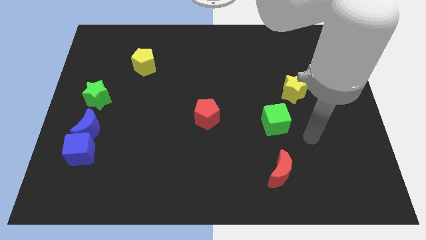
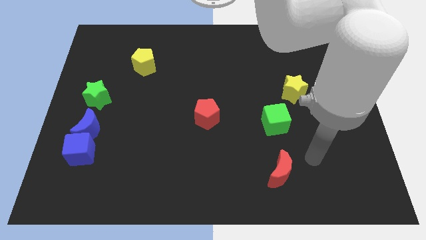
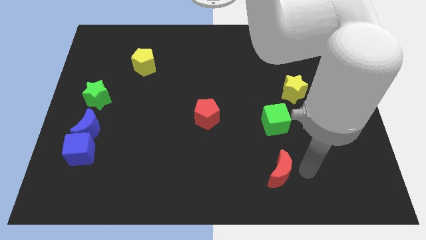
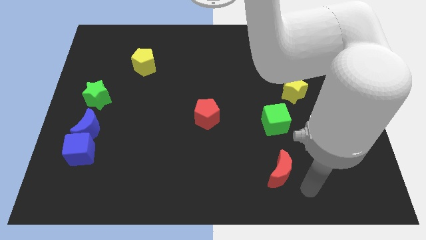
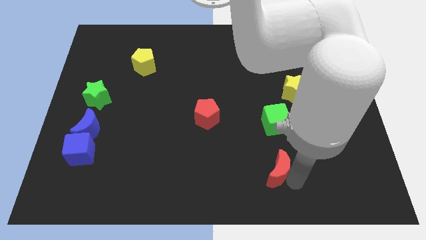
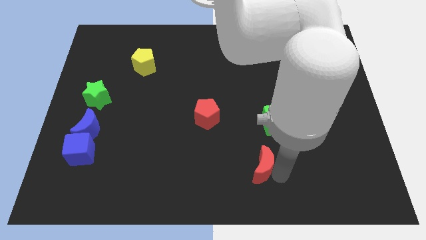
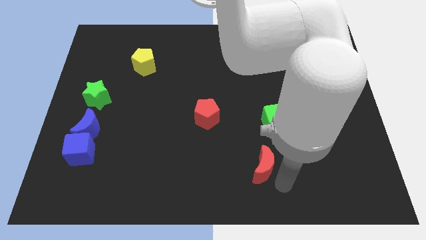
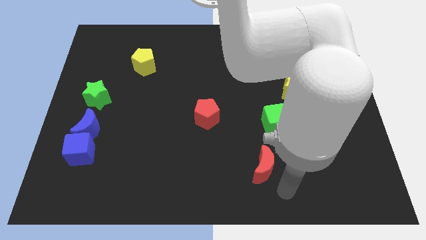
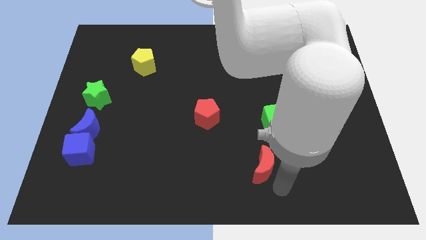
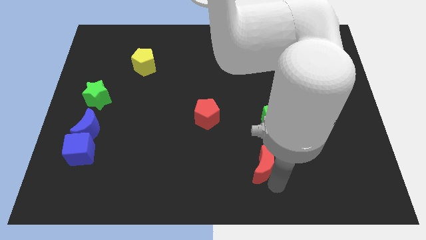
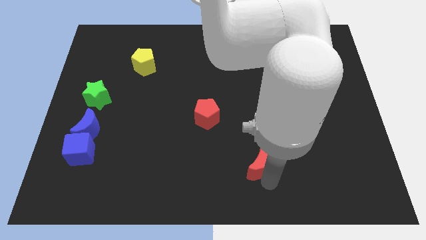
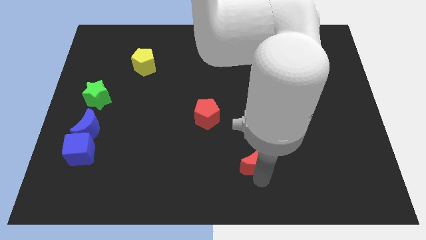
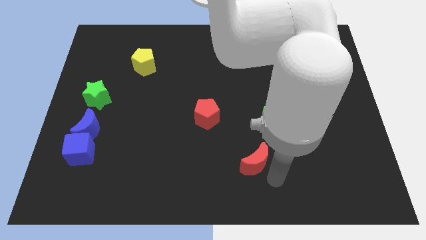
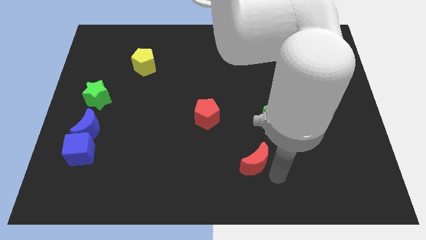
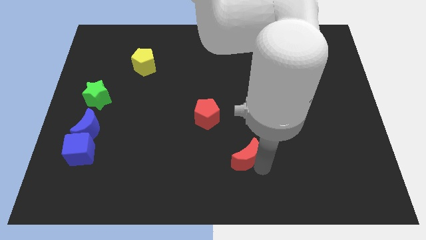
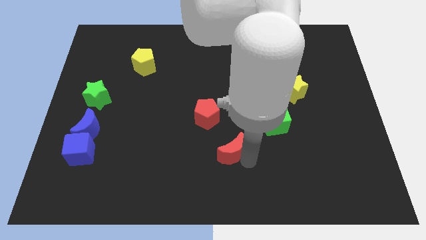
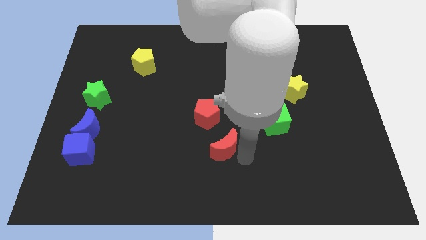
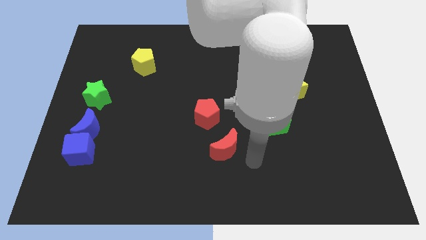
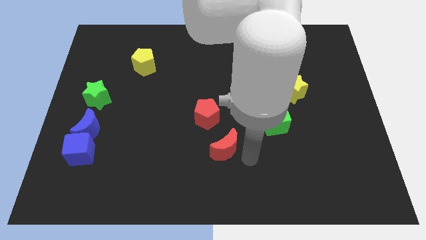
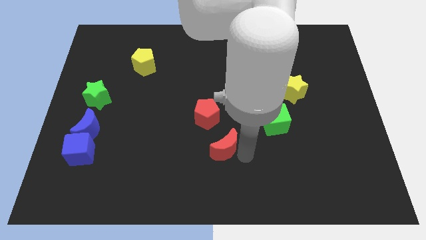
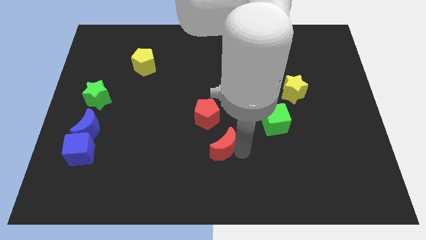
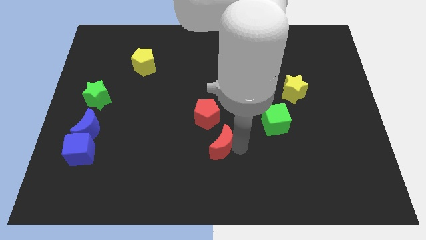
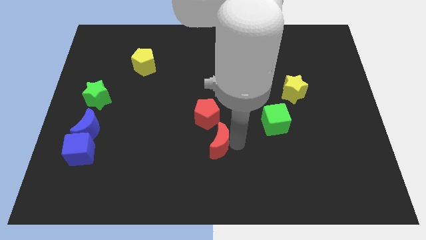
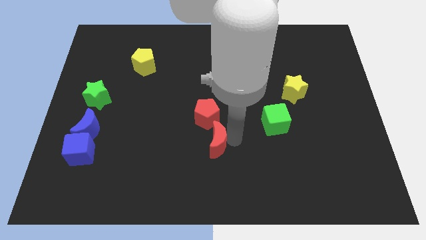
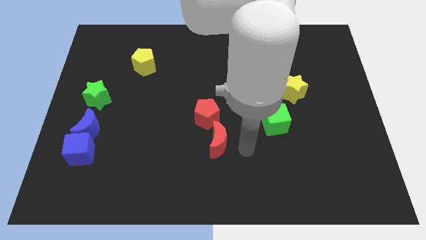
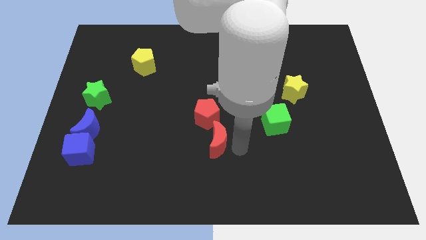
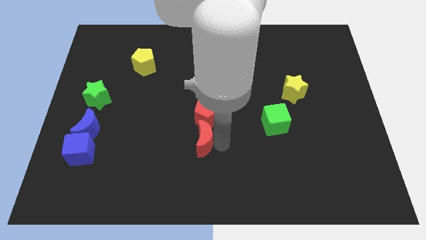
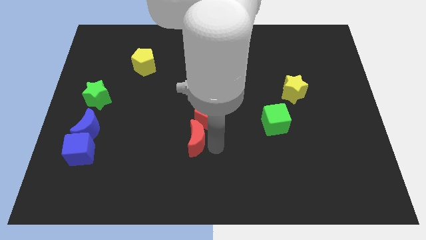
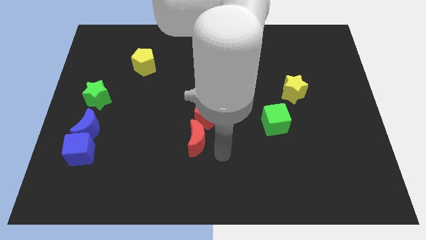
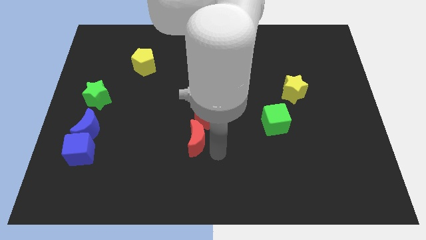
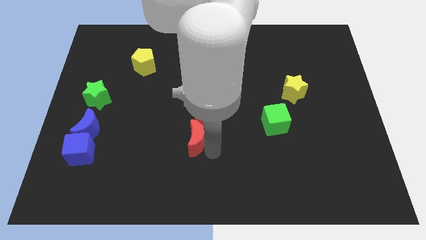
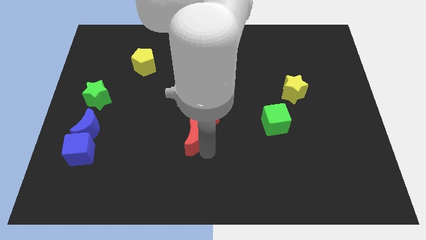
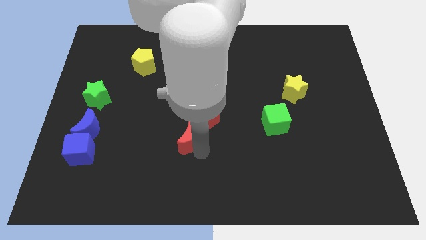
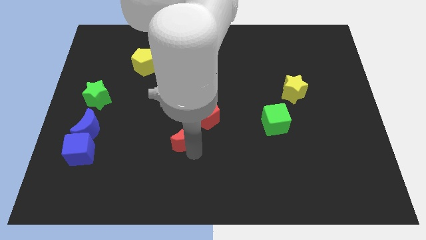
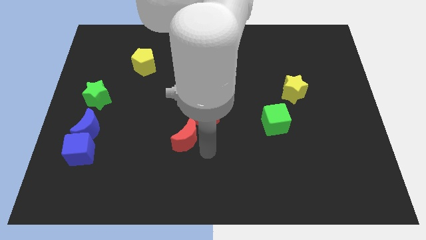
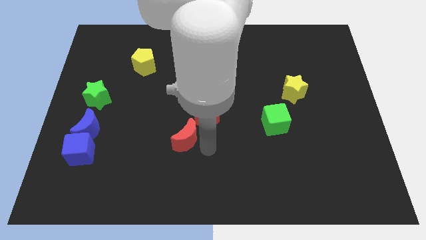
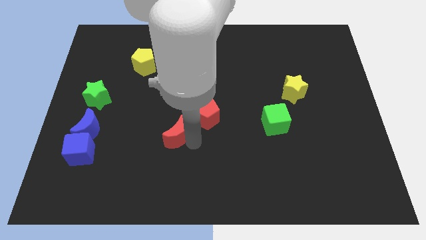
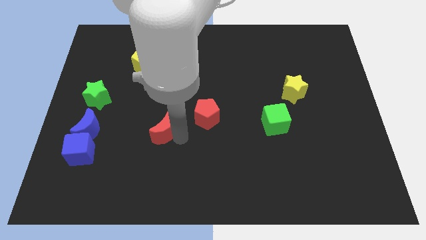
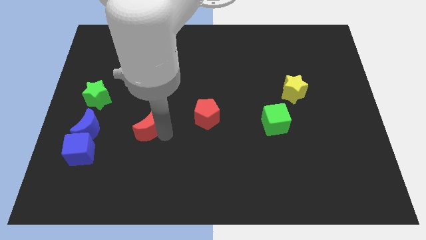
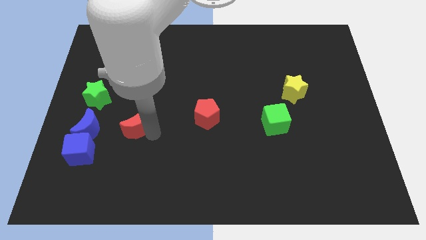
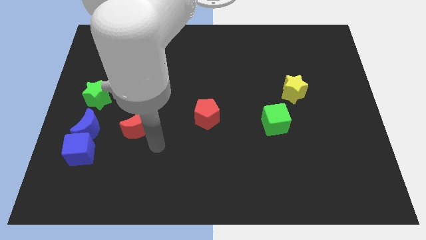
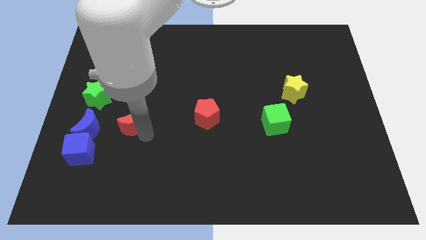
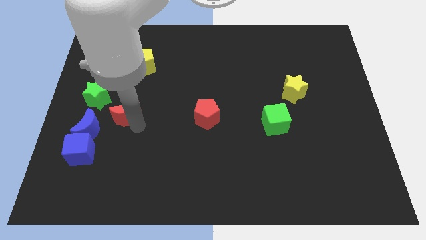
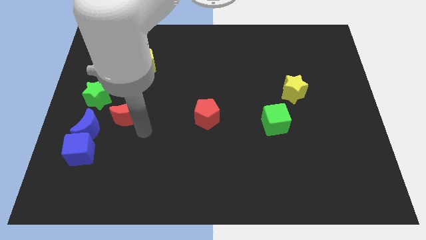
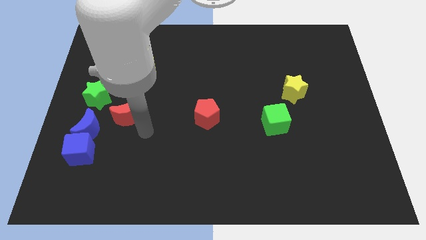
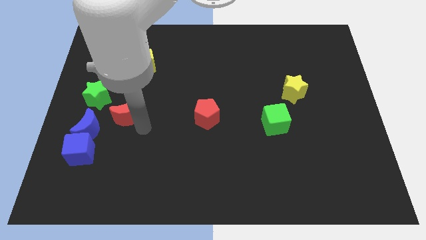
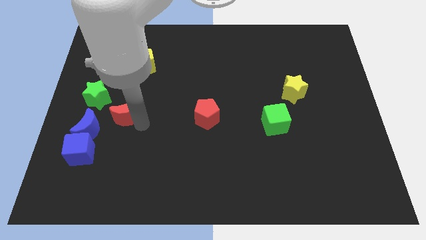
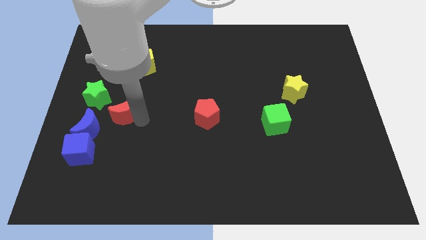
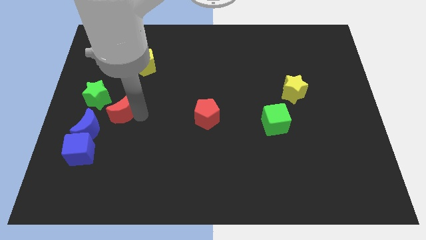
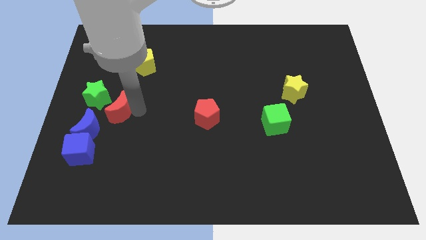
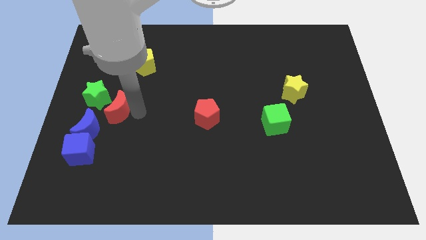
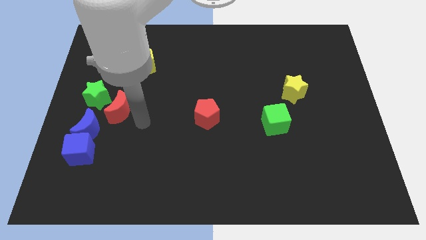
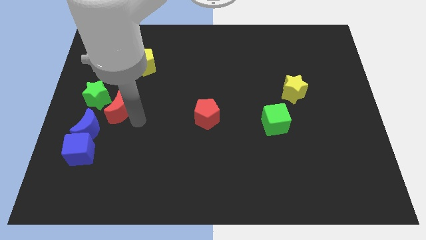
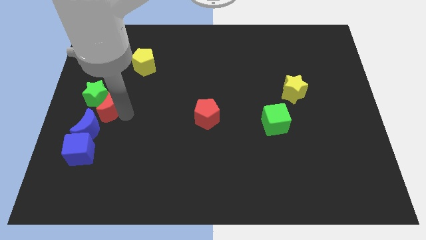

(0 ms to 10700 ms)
move the red moon close to the green star

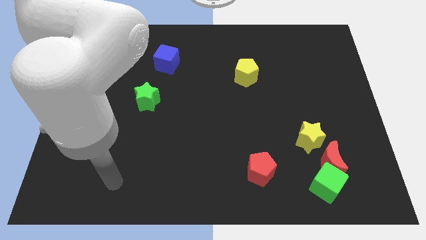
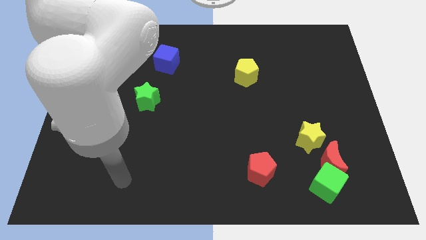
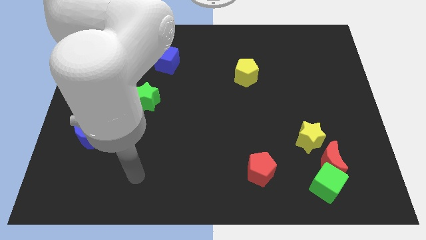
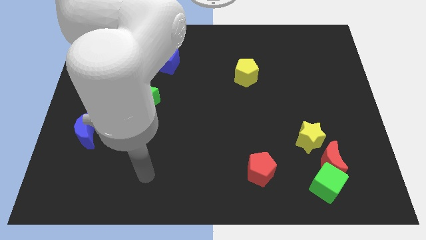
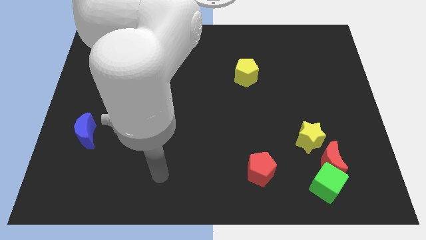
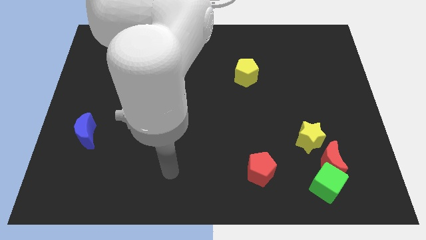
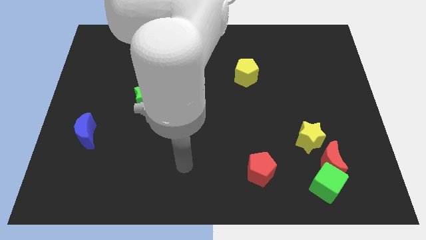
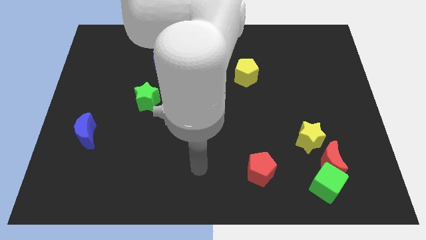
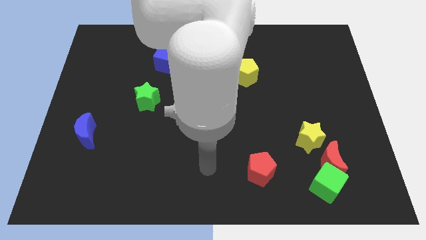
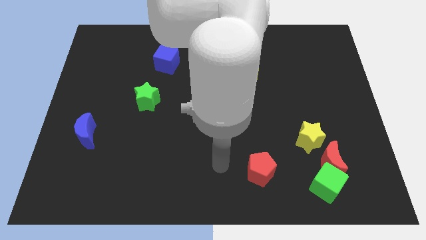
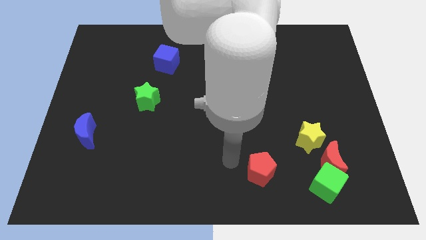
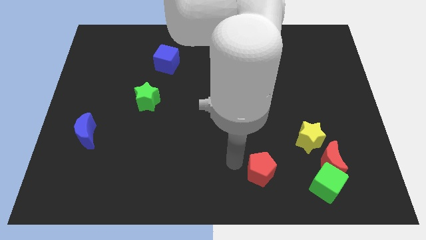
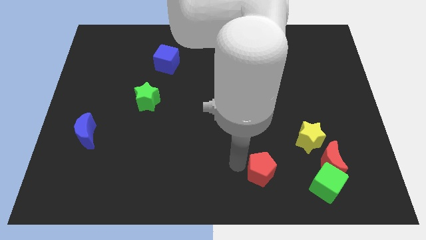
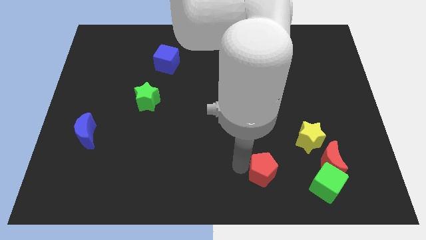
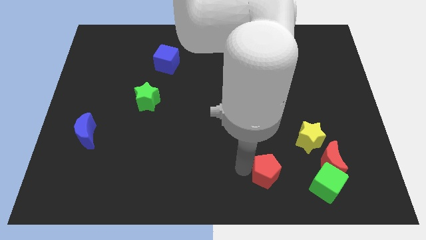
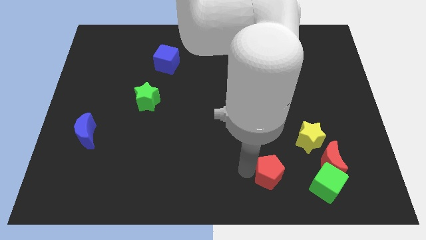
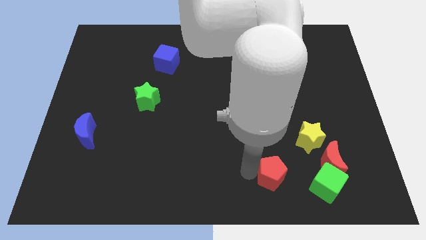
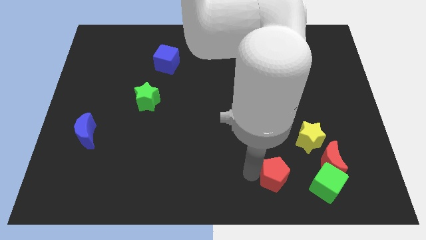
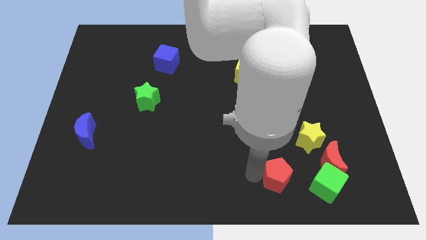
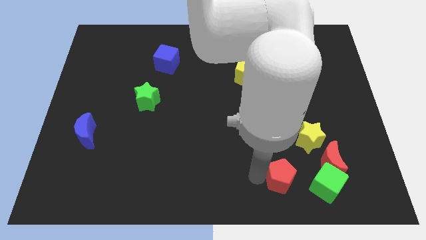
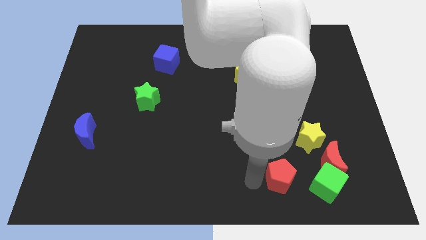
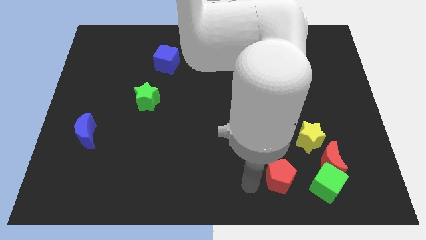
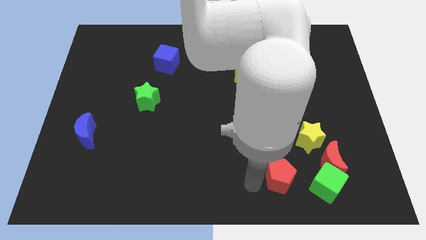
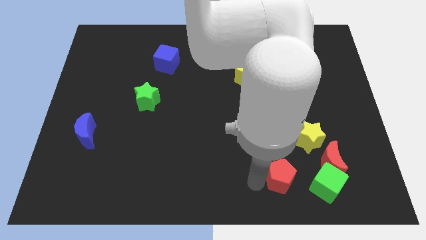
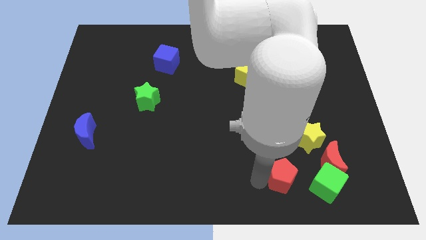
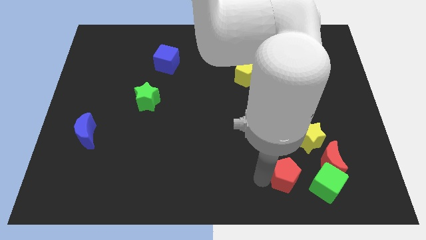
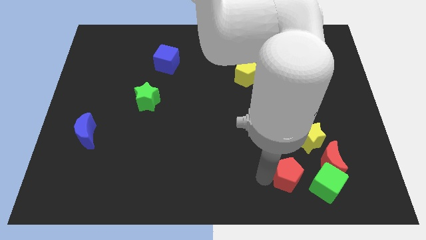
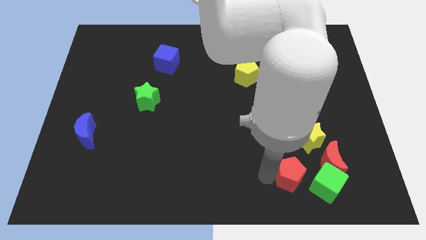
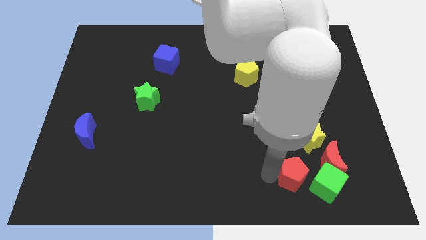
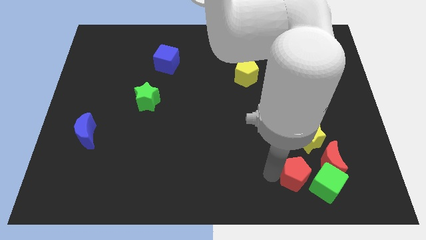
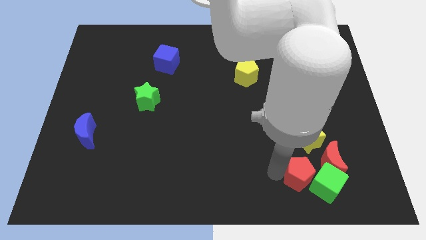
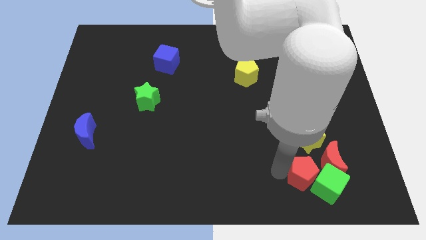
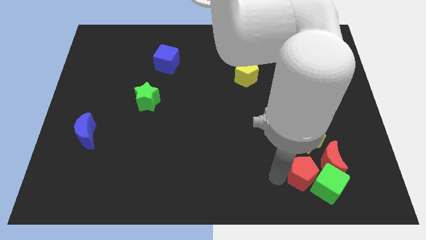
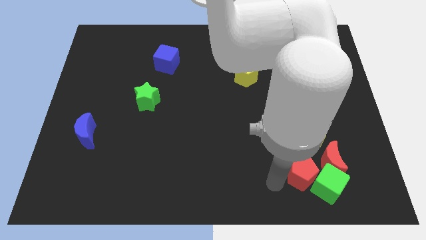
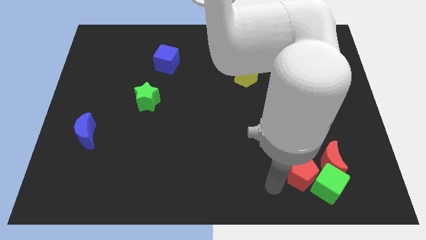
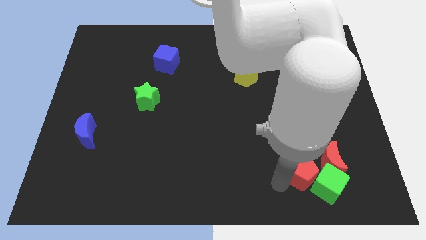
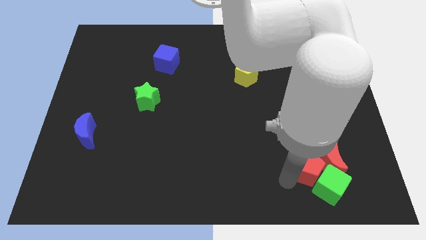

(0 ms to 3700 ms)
slide the red pentagon towards the red moon
